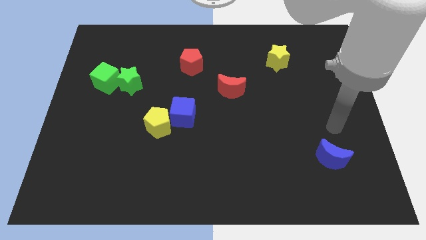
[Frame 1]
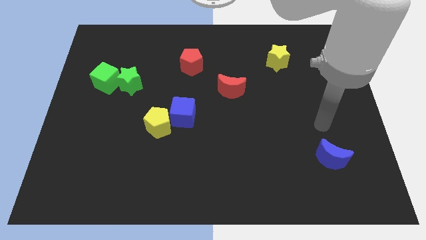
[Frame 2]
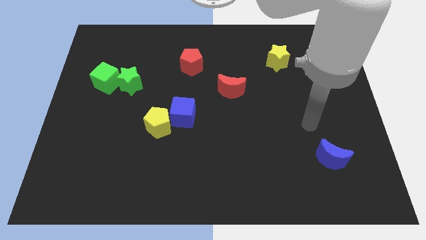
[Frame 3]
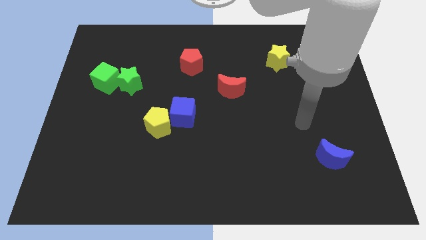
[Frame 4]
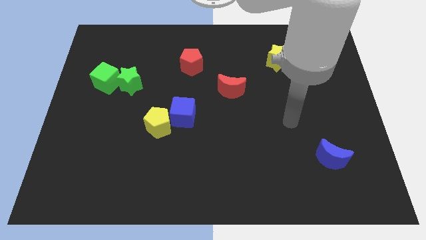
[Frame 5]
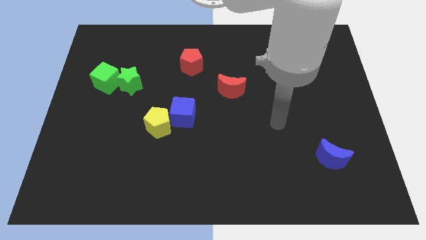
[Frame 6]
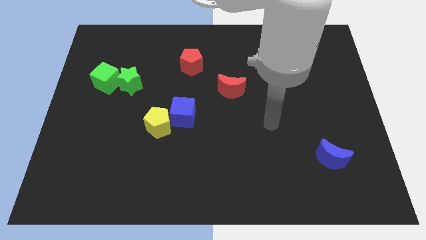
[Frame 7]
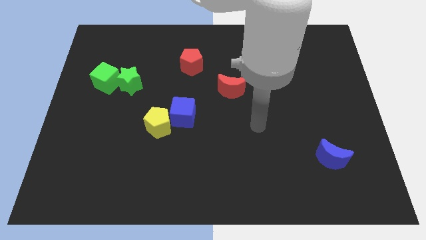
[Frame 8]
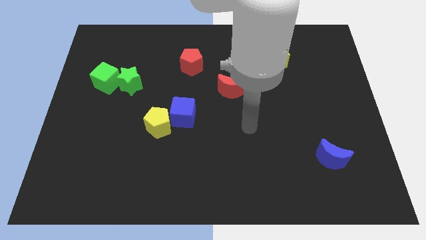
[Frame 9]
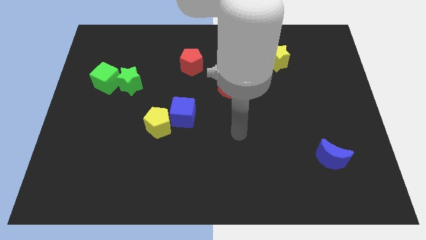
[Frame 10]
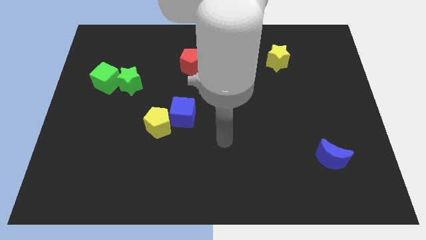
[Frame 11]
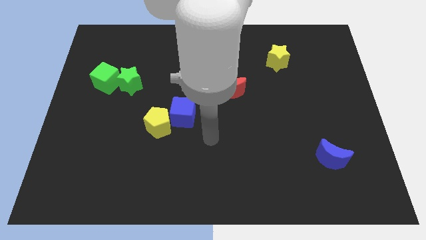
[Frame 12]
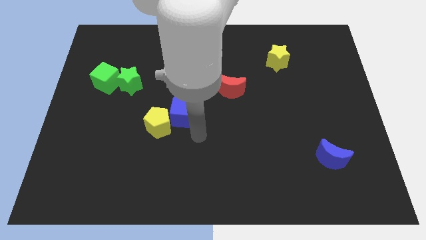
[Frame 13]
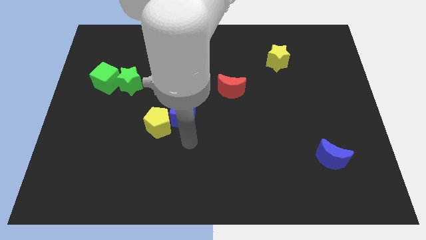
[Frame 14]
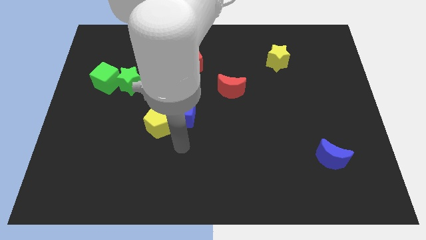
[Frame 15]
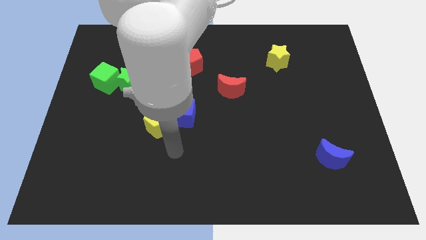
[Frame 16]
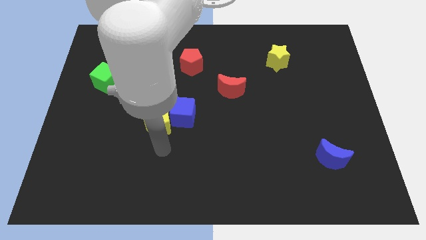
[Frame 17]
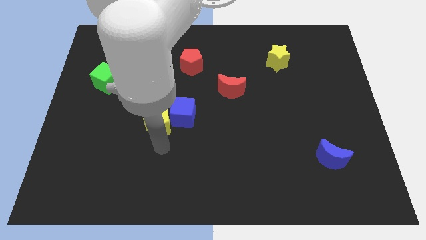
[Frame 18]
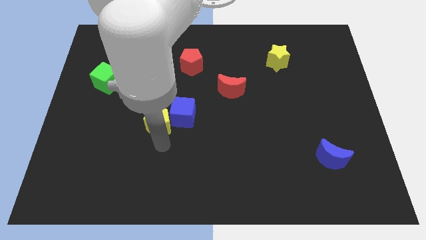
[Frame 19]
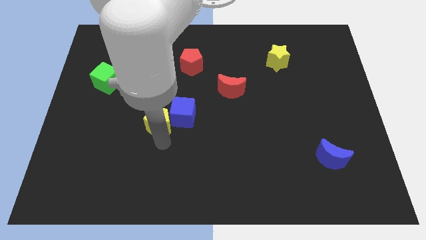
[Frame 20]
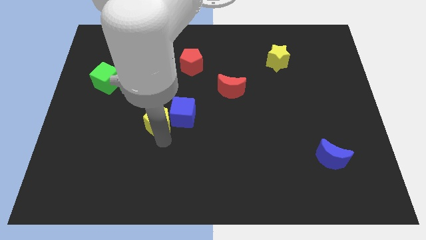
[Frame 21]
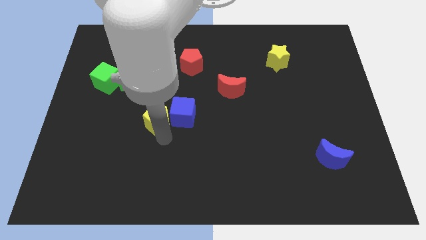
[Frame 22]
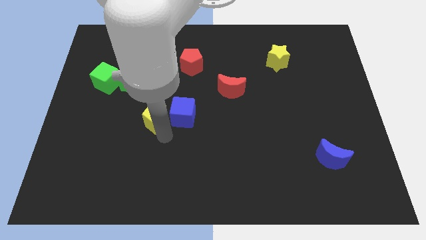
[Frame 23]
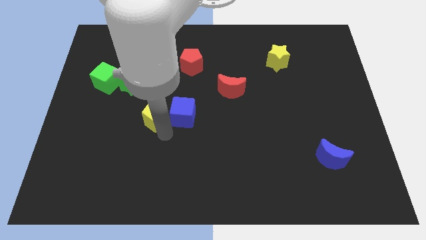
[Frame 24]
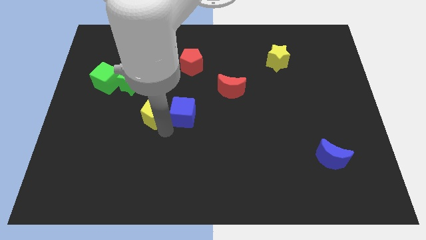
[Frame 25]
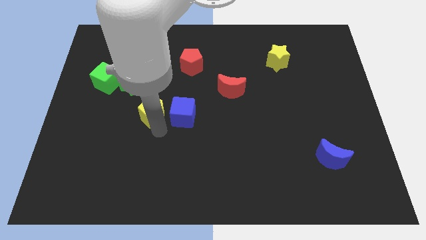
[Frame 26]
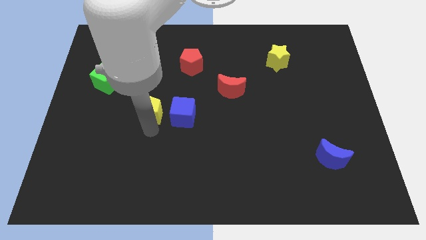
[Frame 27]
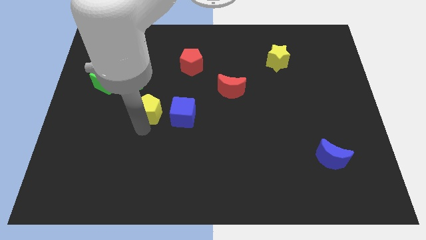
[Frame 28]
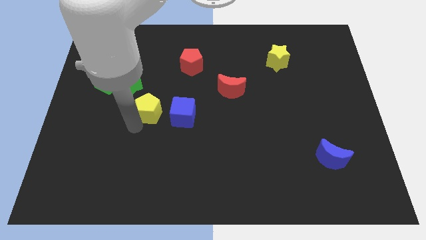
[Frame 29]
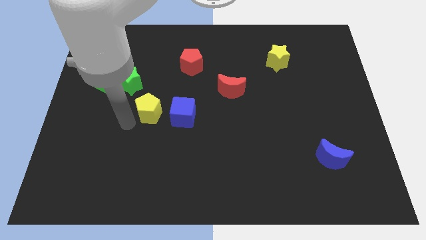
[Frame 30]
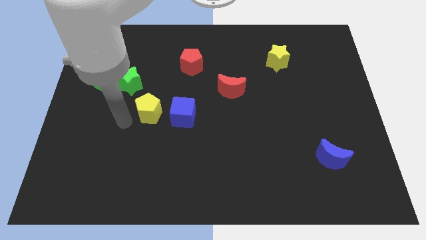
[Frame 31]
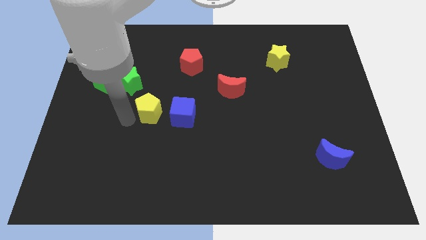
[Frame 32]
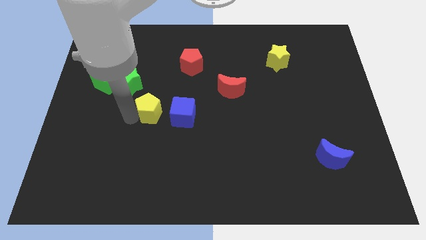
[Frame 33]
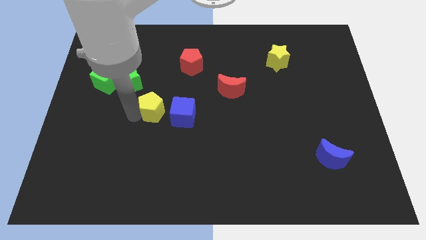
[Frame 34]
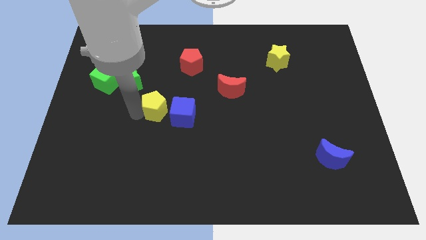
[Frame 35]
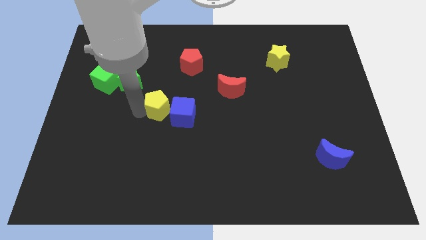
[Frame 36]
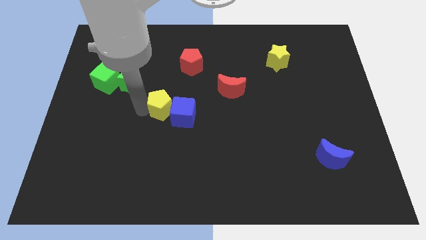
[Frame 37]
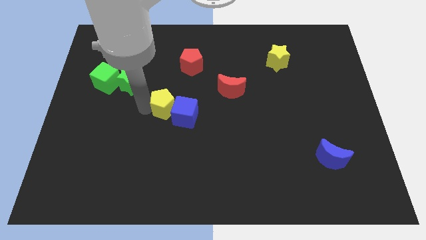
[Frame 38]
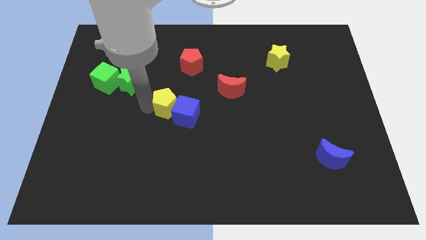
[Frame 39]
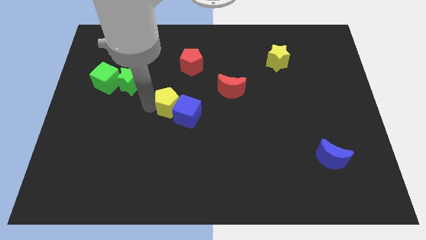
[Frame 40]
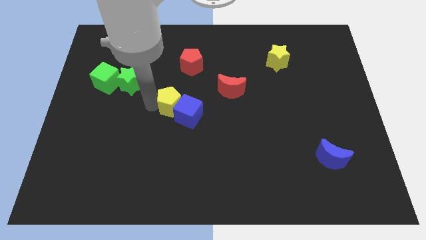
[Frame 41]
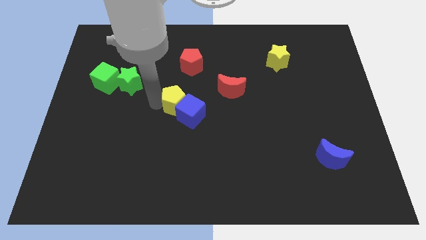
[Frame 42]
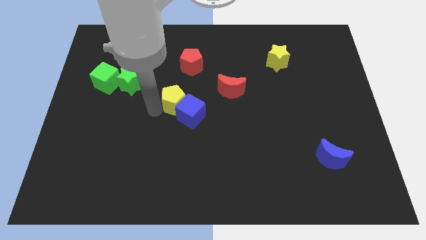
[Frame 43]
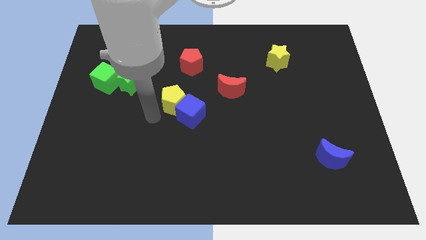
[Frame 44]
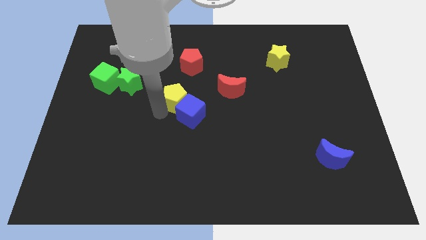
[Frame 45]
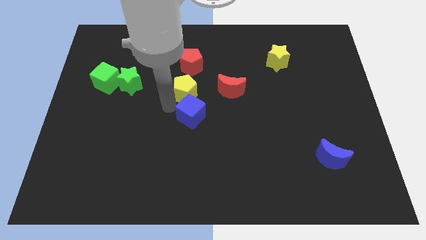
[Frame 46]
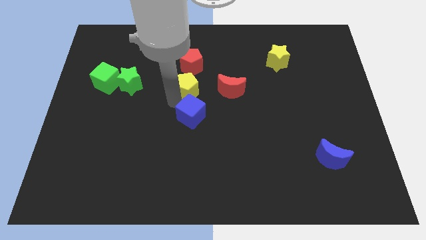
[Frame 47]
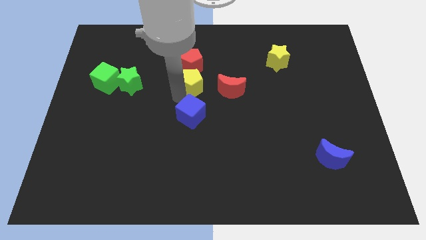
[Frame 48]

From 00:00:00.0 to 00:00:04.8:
put the yellow pentagon to the bottom right side of the red pentagon

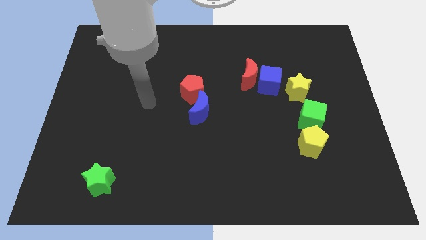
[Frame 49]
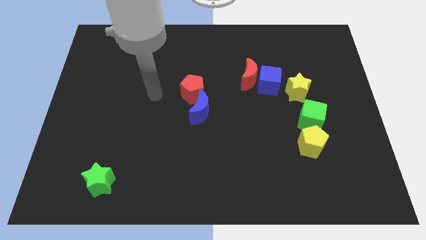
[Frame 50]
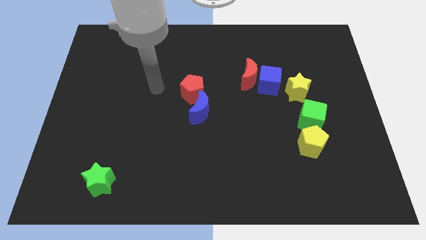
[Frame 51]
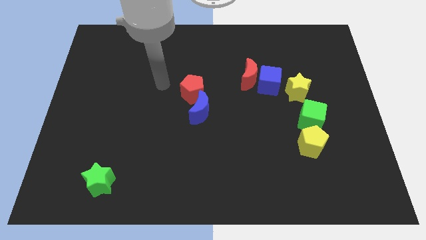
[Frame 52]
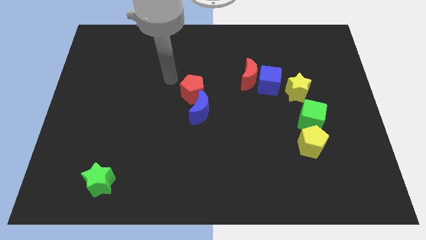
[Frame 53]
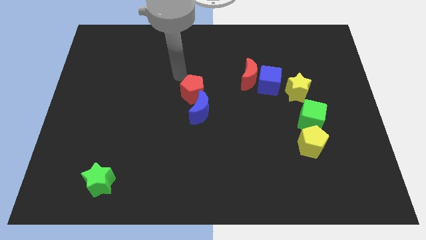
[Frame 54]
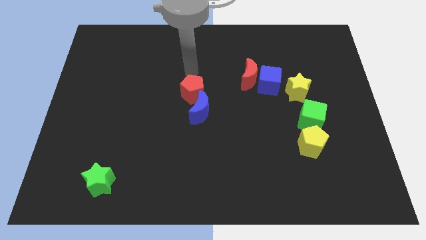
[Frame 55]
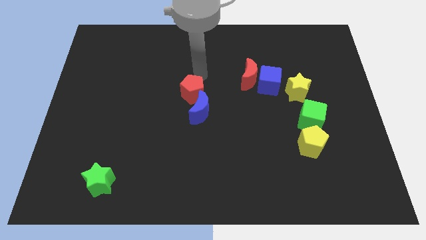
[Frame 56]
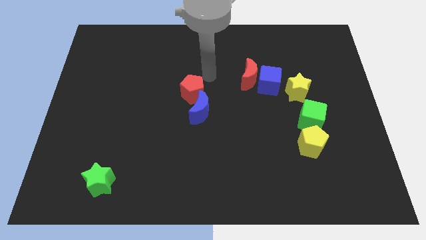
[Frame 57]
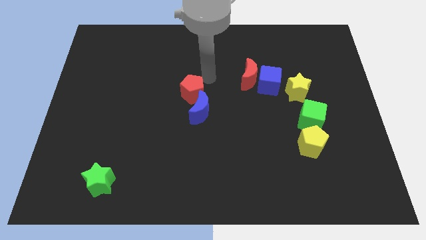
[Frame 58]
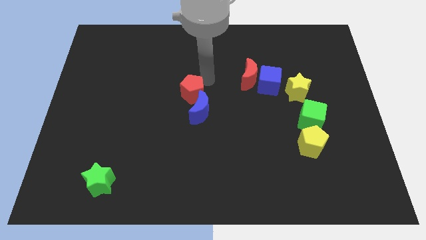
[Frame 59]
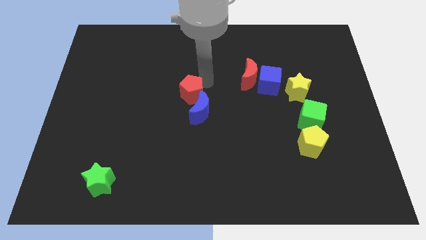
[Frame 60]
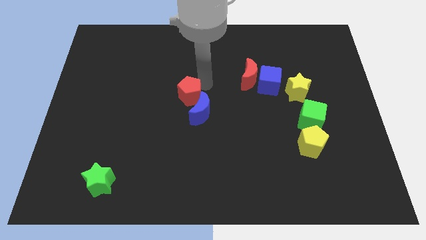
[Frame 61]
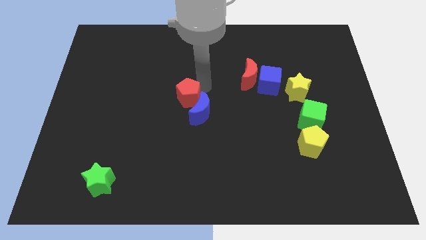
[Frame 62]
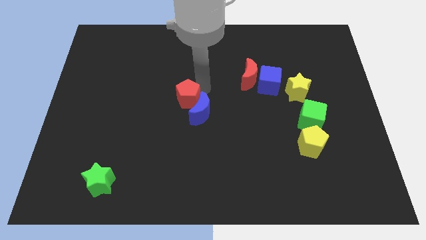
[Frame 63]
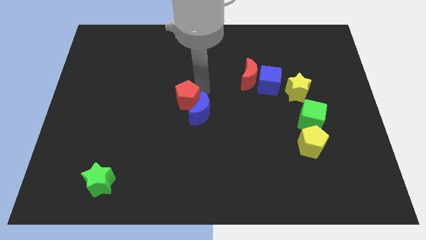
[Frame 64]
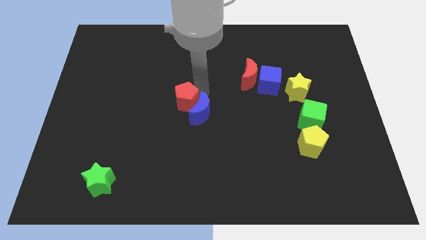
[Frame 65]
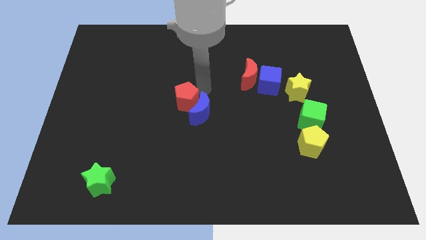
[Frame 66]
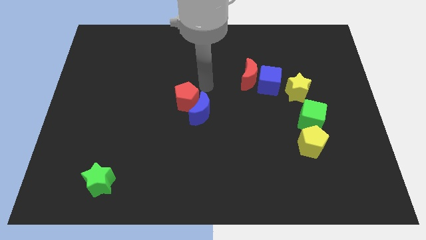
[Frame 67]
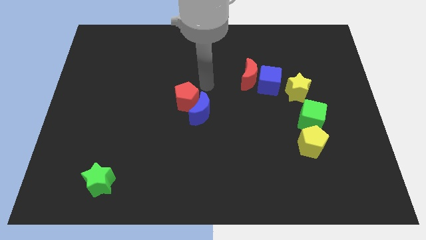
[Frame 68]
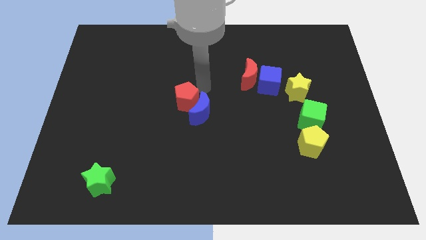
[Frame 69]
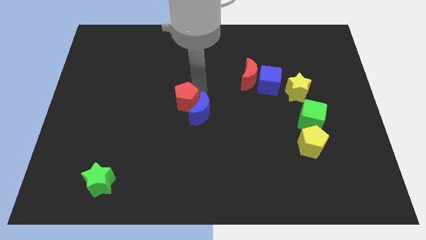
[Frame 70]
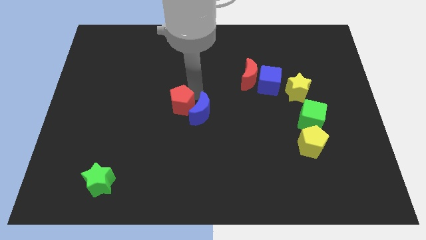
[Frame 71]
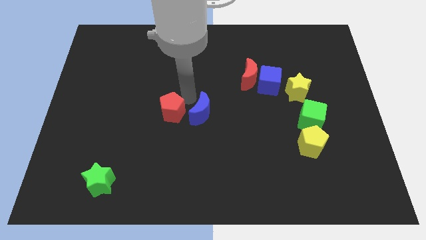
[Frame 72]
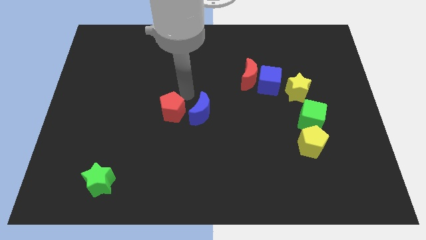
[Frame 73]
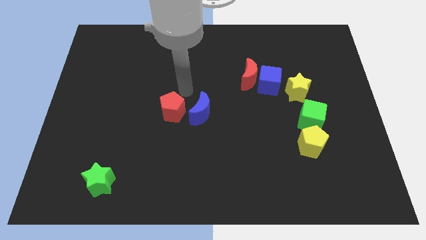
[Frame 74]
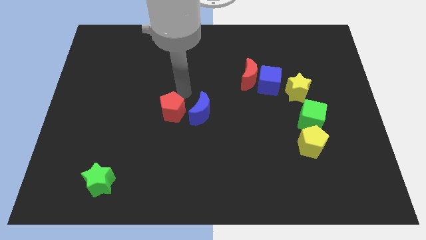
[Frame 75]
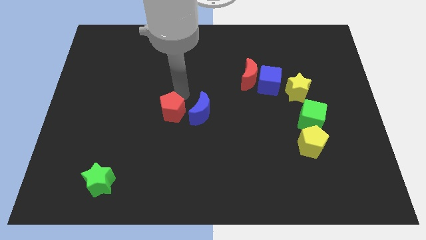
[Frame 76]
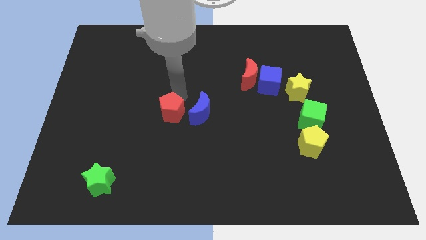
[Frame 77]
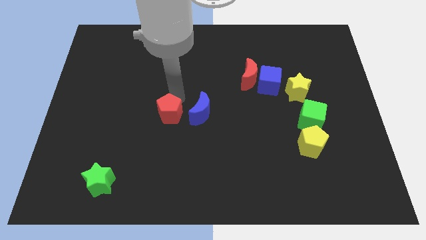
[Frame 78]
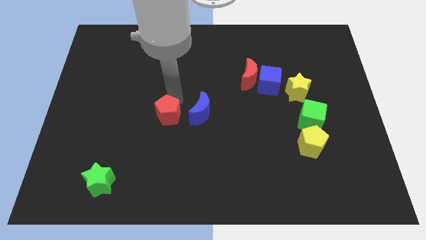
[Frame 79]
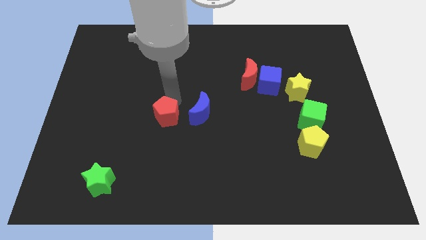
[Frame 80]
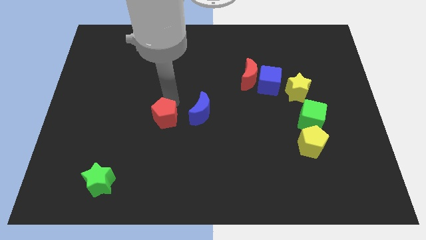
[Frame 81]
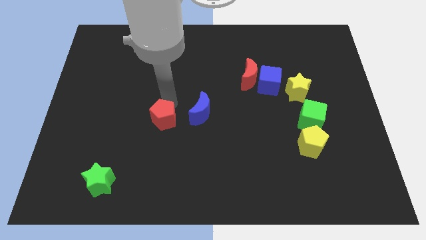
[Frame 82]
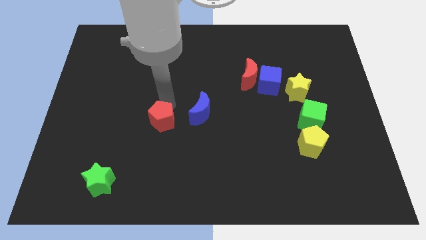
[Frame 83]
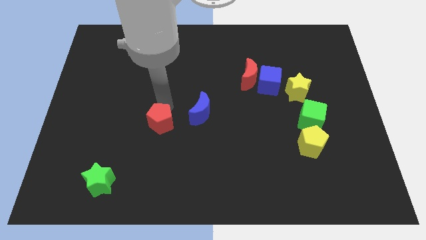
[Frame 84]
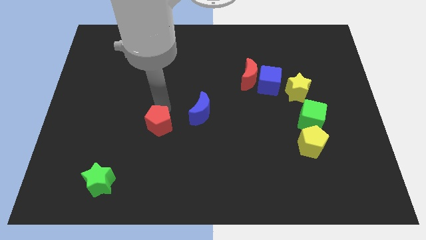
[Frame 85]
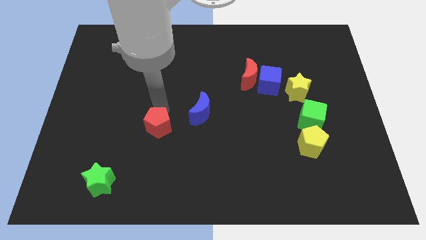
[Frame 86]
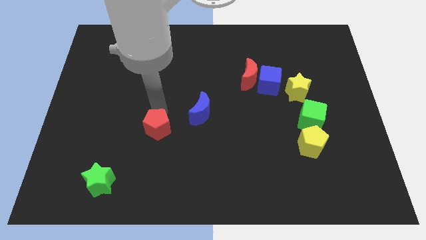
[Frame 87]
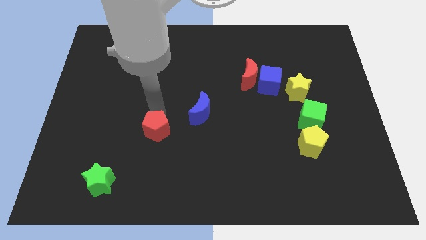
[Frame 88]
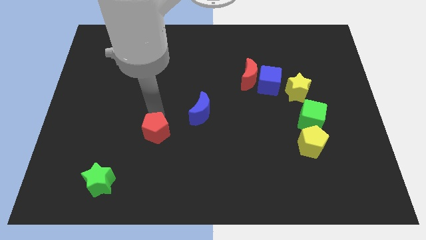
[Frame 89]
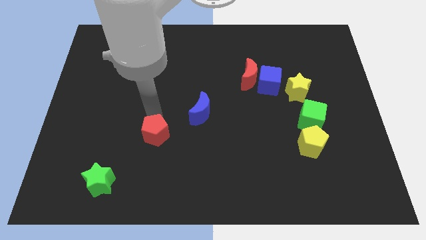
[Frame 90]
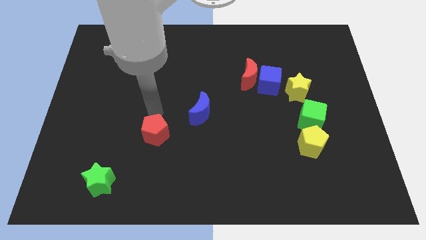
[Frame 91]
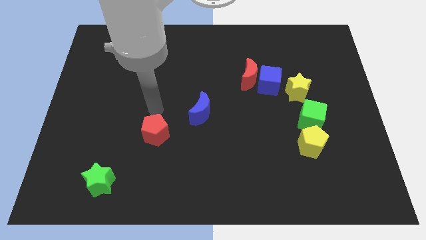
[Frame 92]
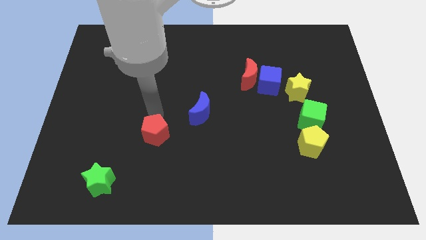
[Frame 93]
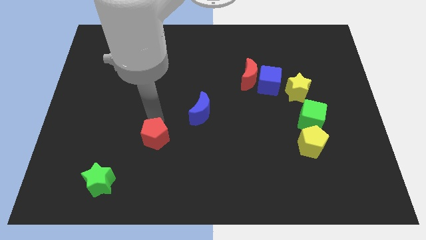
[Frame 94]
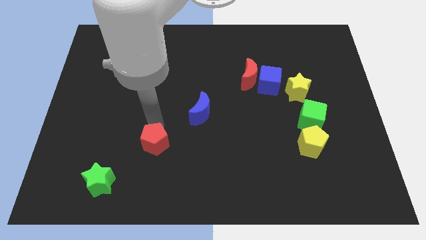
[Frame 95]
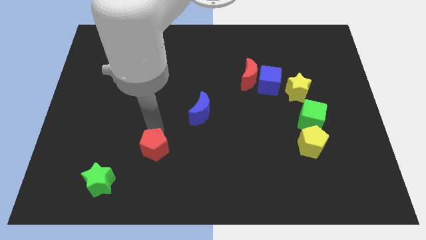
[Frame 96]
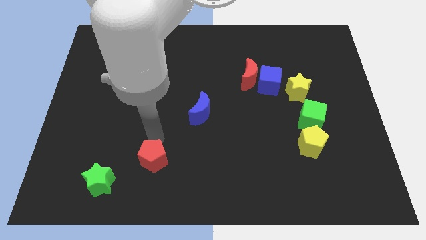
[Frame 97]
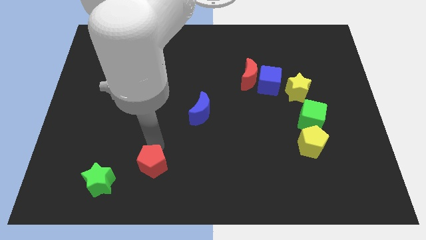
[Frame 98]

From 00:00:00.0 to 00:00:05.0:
move the red pentagon right of the green star
